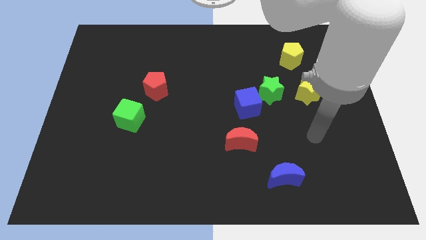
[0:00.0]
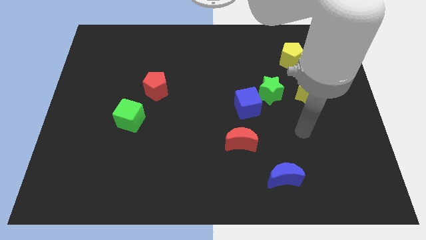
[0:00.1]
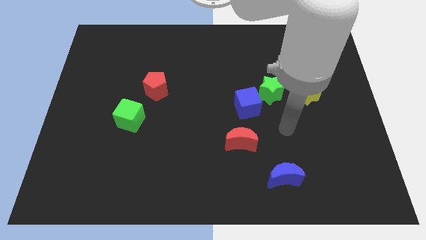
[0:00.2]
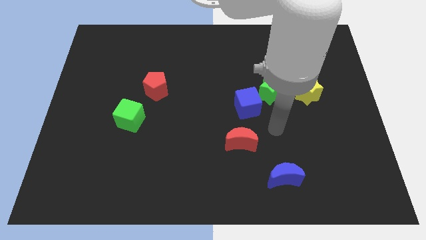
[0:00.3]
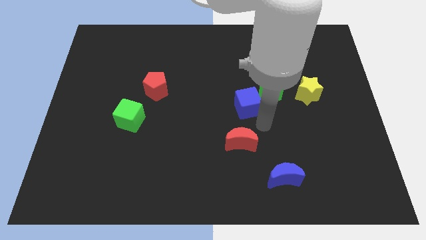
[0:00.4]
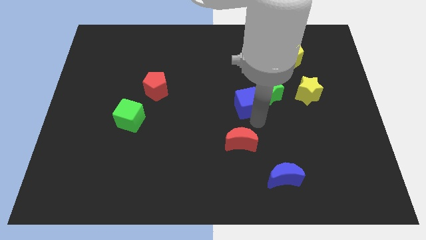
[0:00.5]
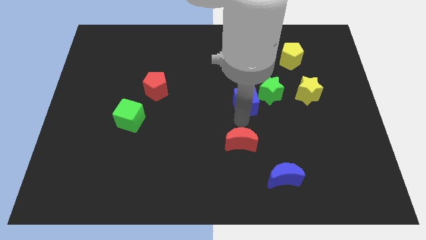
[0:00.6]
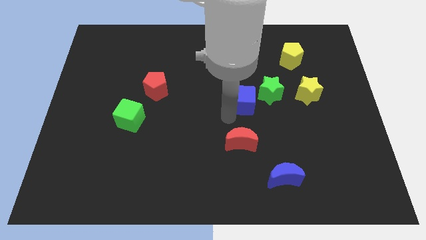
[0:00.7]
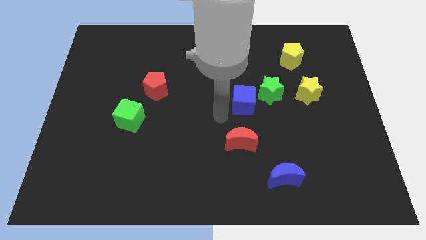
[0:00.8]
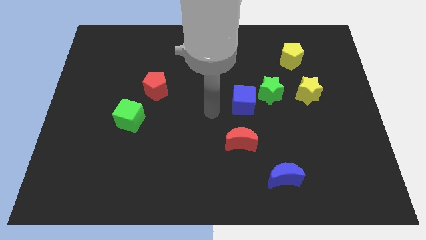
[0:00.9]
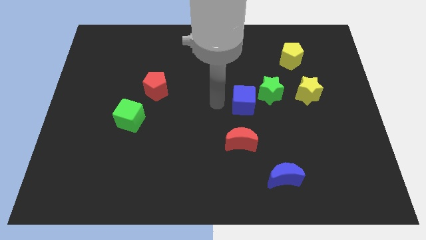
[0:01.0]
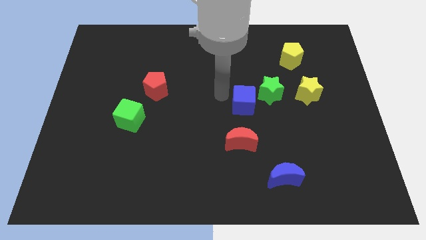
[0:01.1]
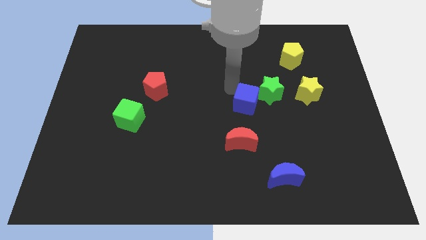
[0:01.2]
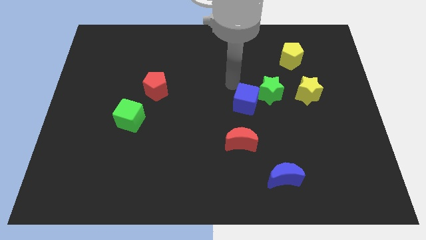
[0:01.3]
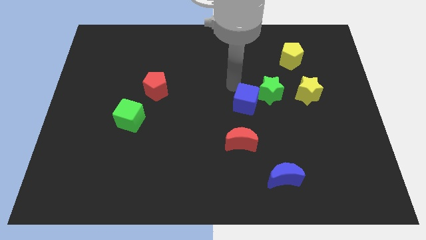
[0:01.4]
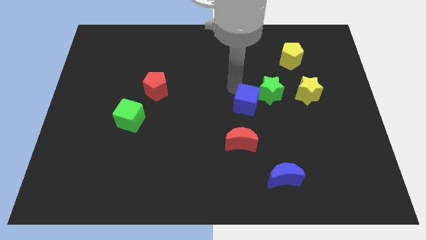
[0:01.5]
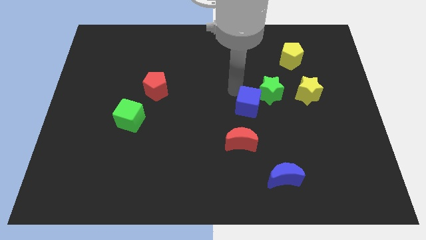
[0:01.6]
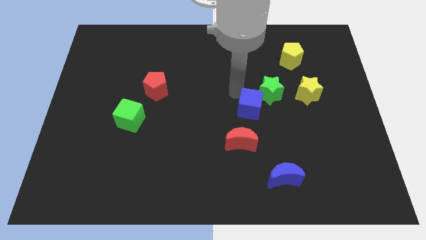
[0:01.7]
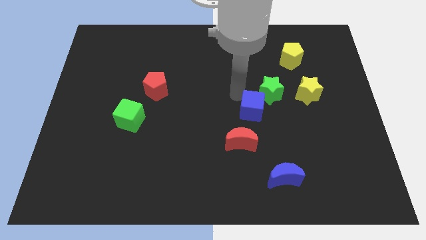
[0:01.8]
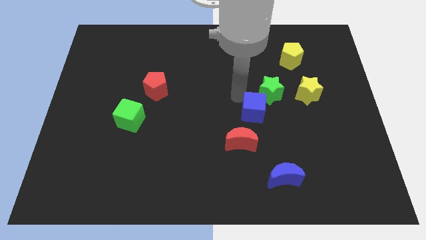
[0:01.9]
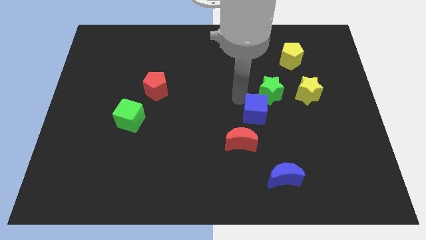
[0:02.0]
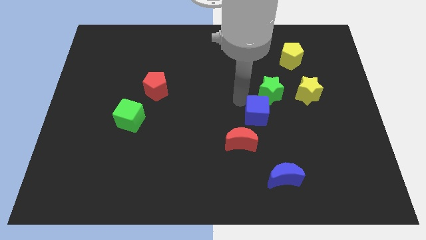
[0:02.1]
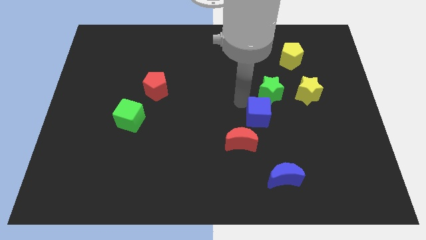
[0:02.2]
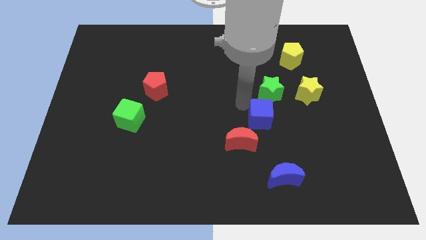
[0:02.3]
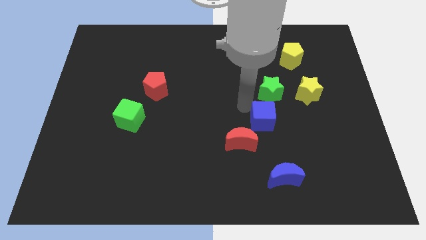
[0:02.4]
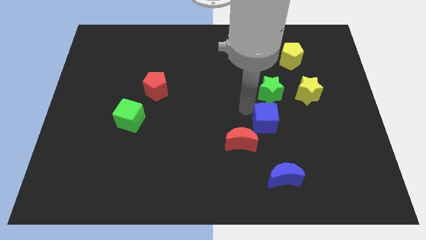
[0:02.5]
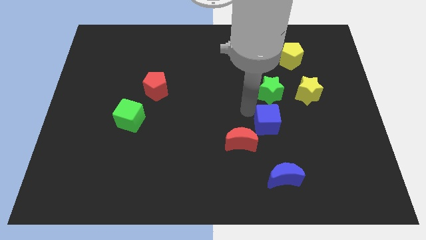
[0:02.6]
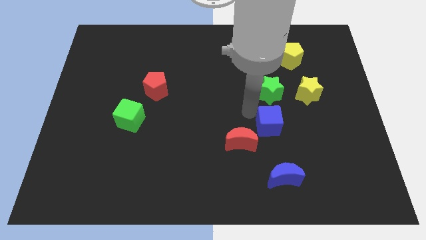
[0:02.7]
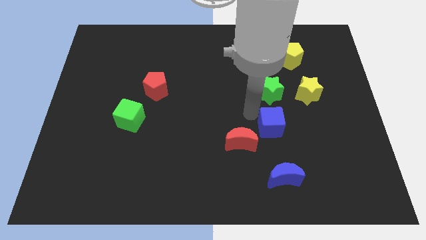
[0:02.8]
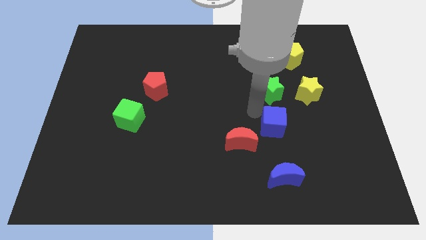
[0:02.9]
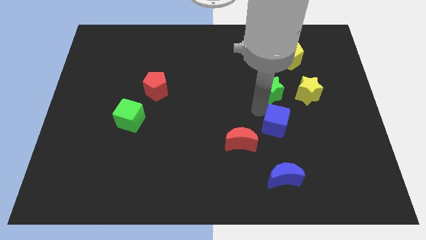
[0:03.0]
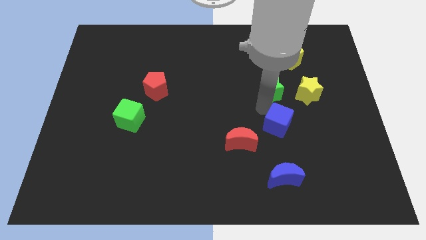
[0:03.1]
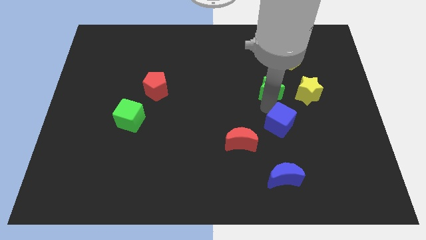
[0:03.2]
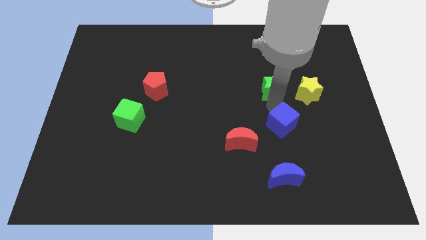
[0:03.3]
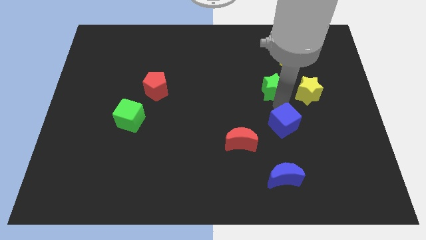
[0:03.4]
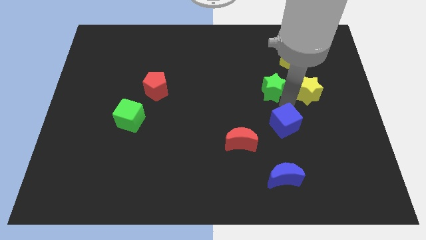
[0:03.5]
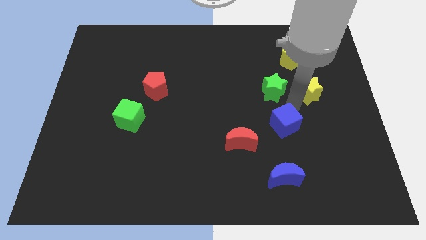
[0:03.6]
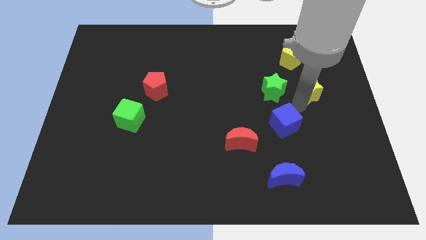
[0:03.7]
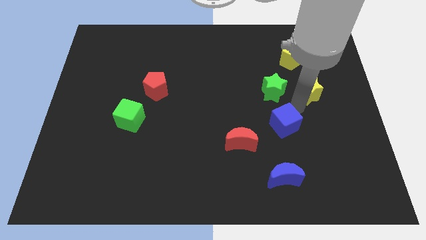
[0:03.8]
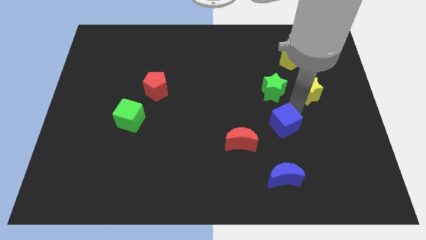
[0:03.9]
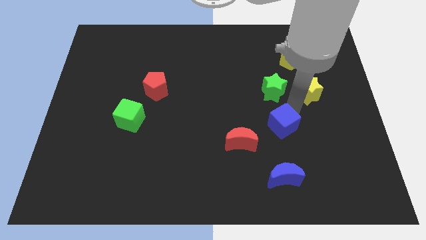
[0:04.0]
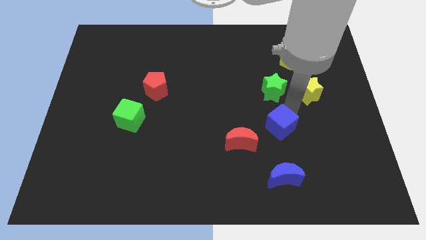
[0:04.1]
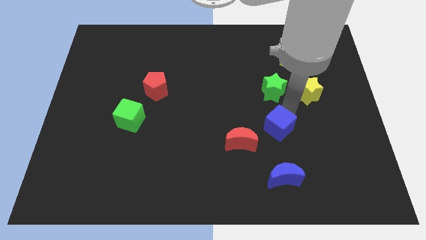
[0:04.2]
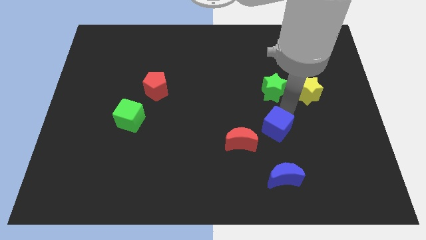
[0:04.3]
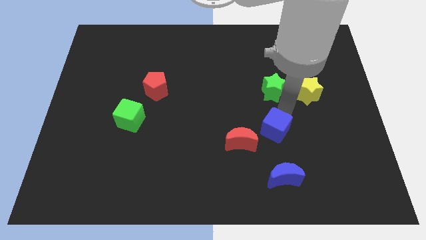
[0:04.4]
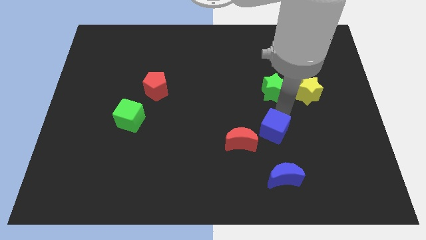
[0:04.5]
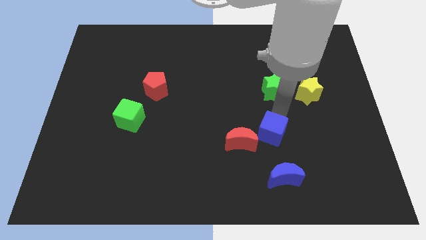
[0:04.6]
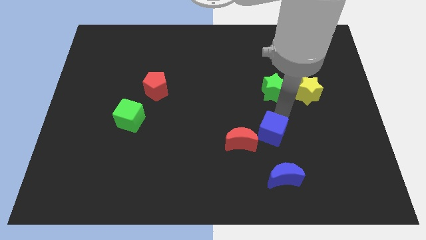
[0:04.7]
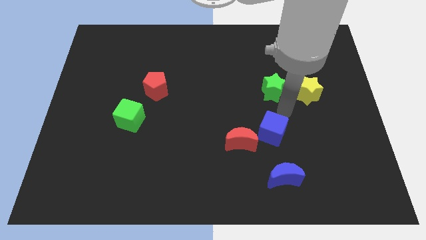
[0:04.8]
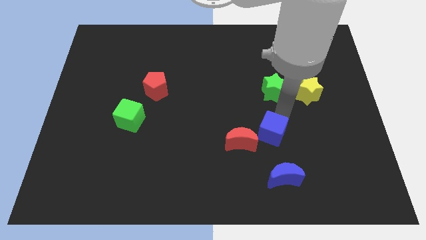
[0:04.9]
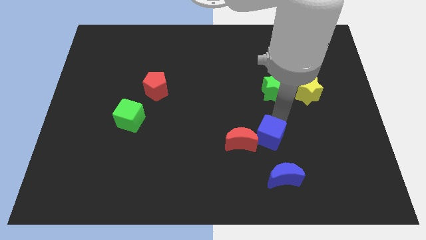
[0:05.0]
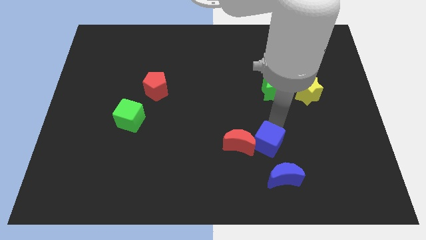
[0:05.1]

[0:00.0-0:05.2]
move the blue cube to the top left of the blue moon

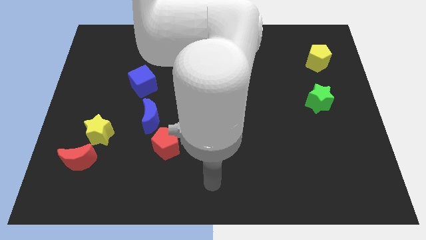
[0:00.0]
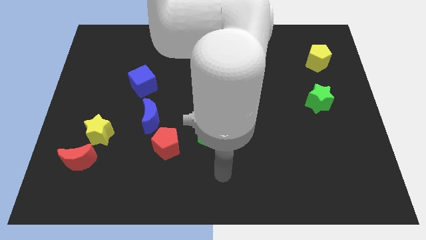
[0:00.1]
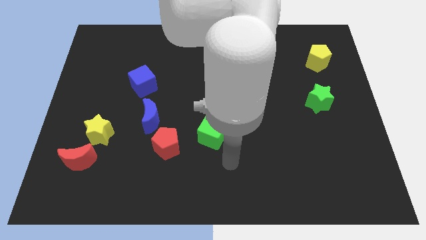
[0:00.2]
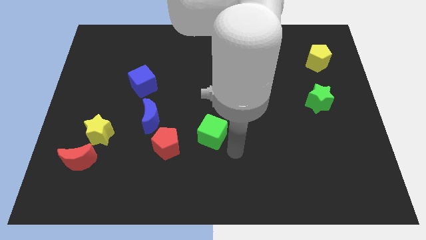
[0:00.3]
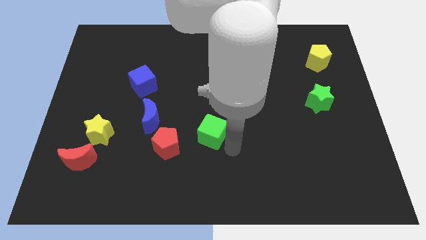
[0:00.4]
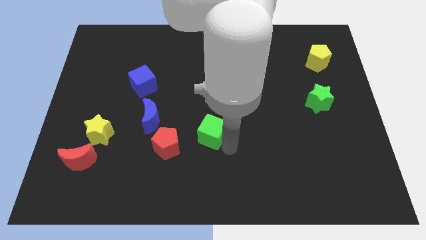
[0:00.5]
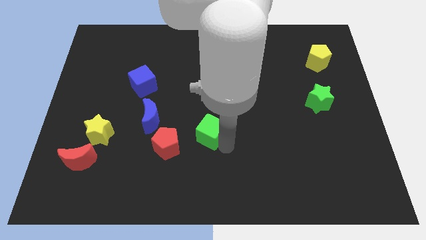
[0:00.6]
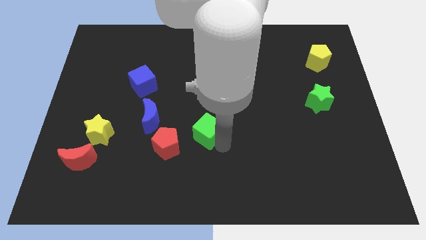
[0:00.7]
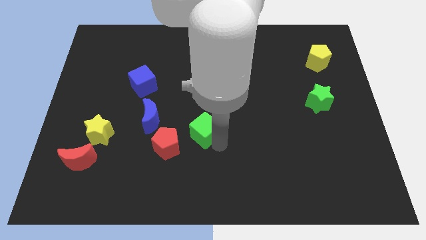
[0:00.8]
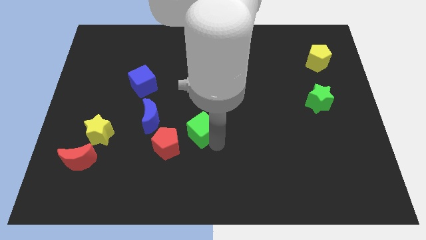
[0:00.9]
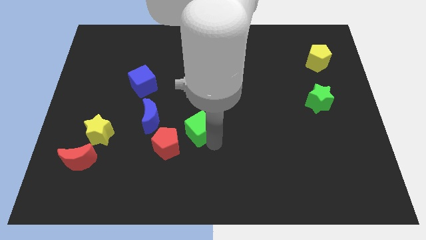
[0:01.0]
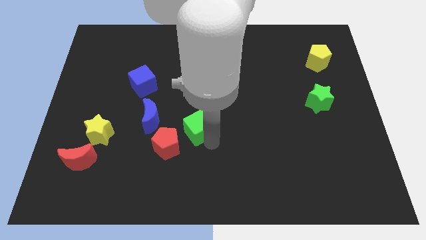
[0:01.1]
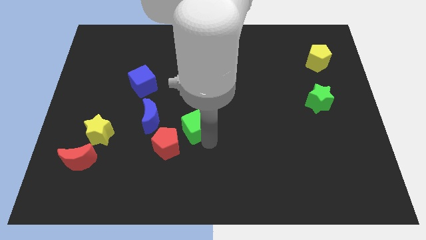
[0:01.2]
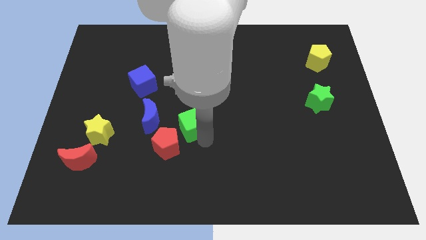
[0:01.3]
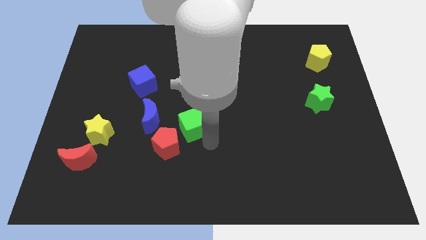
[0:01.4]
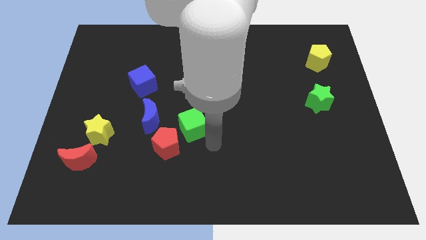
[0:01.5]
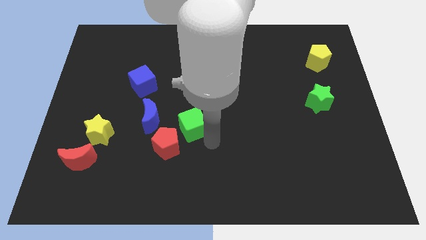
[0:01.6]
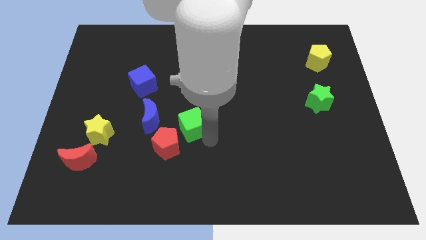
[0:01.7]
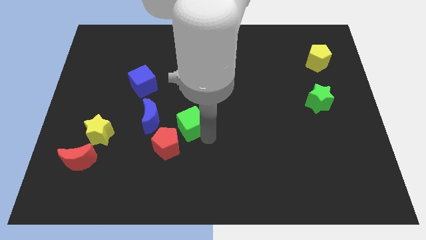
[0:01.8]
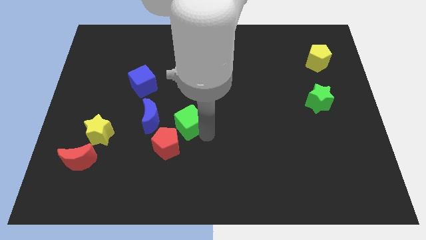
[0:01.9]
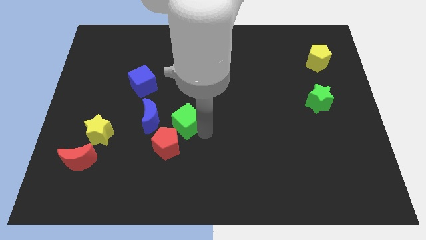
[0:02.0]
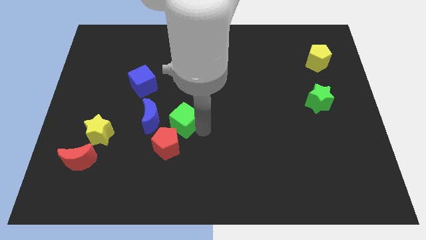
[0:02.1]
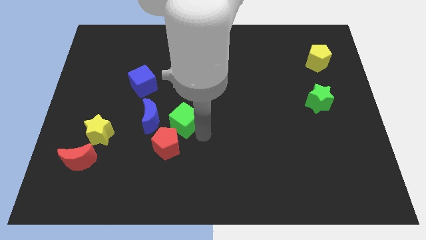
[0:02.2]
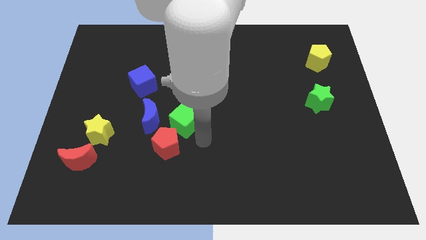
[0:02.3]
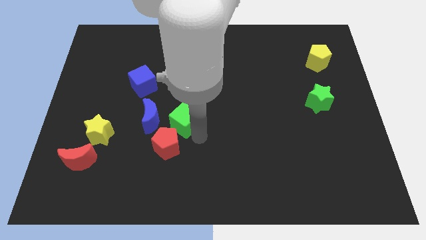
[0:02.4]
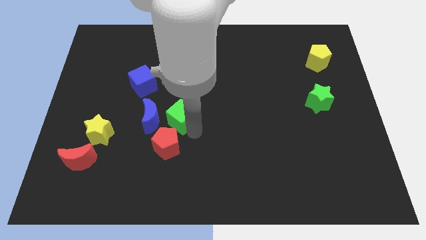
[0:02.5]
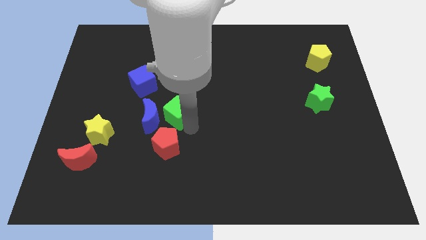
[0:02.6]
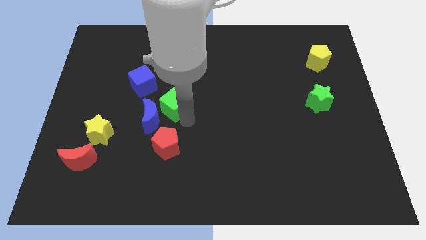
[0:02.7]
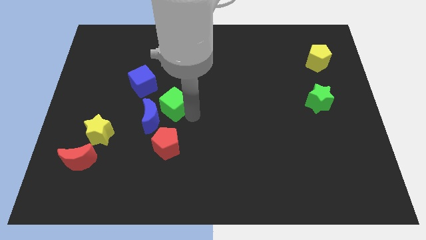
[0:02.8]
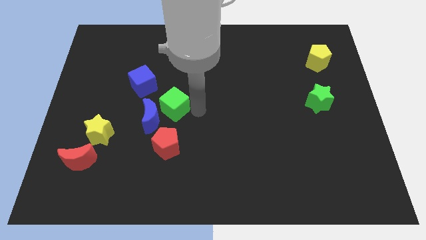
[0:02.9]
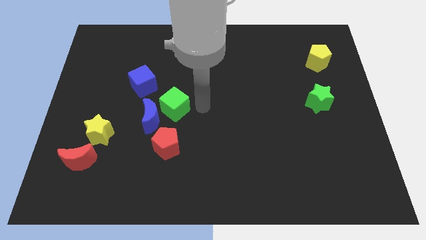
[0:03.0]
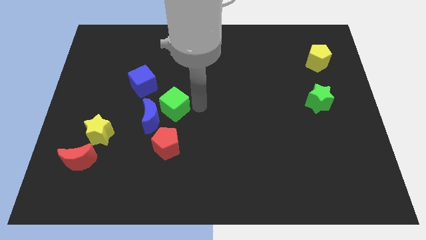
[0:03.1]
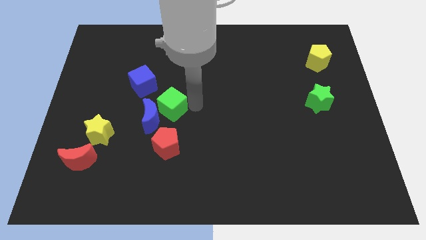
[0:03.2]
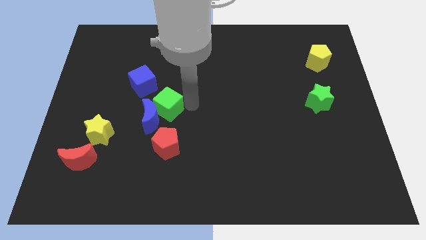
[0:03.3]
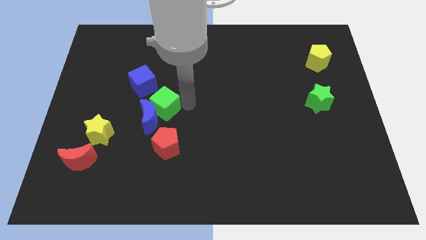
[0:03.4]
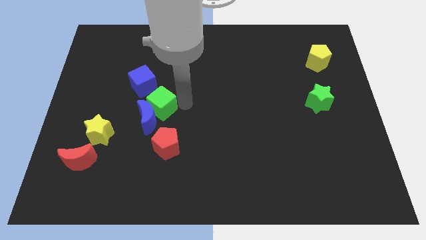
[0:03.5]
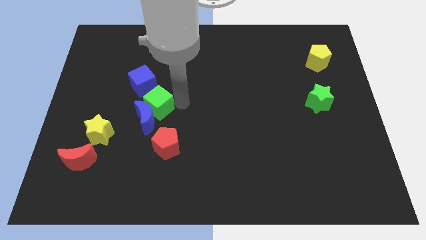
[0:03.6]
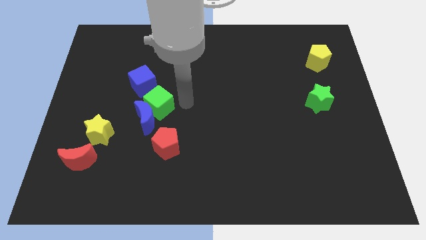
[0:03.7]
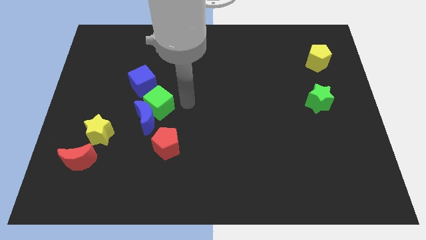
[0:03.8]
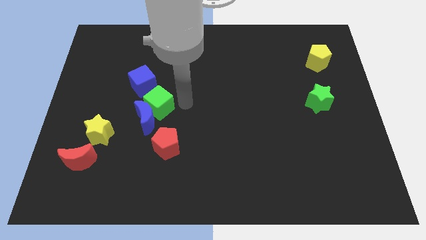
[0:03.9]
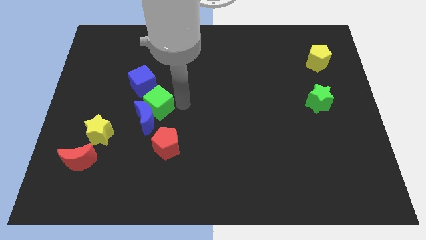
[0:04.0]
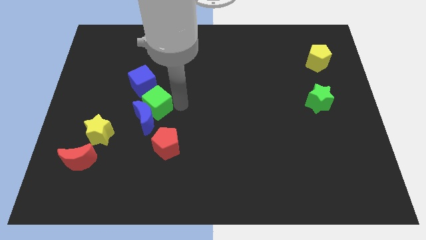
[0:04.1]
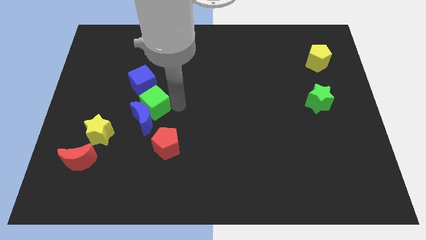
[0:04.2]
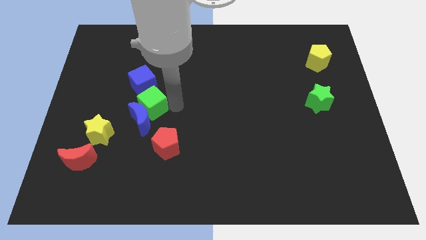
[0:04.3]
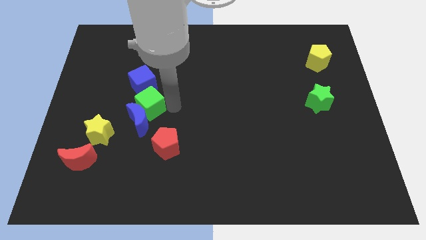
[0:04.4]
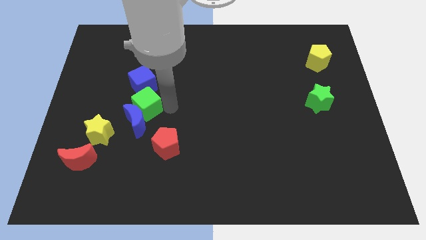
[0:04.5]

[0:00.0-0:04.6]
put the green cube diagonally up and to the right of the yellow star
